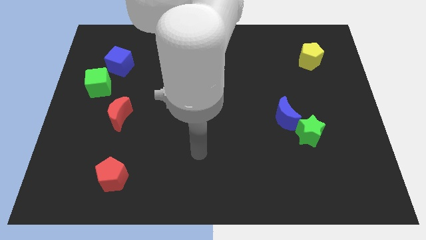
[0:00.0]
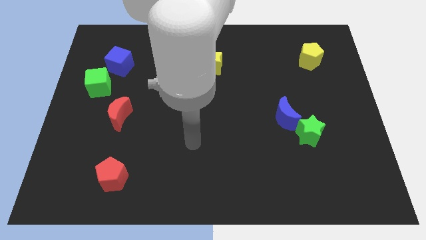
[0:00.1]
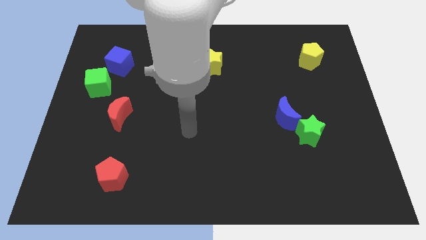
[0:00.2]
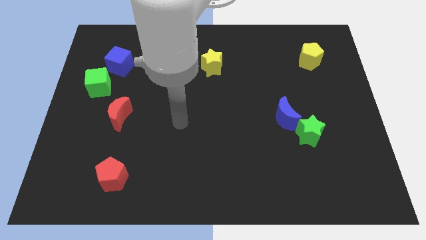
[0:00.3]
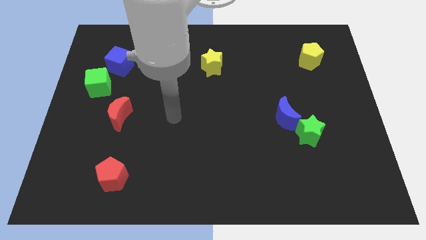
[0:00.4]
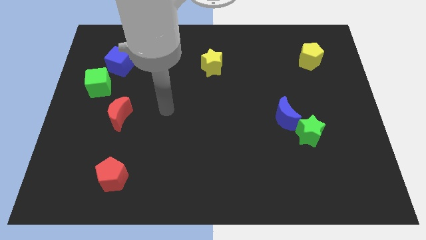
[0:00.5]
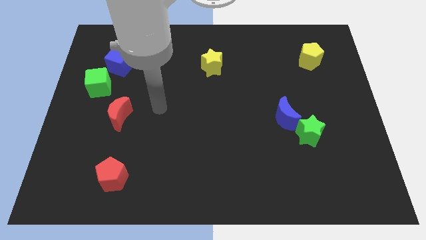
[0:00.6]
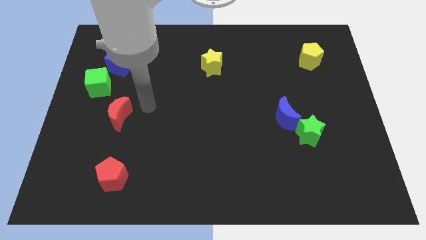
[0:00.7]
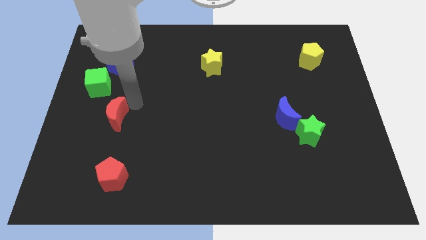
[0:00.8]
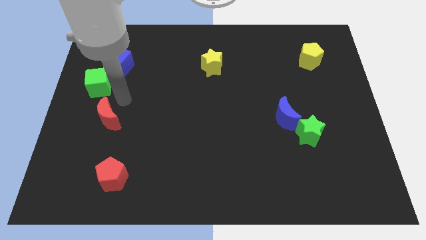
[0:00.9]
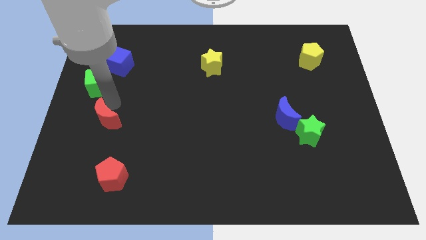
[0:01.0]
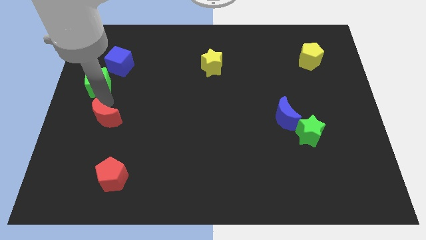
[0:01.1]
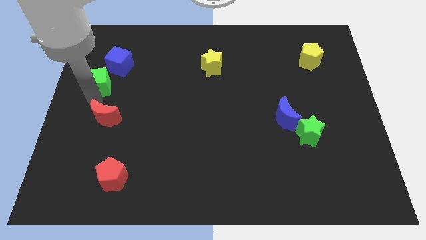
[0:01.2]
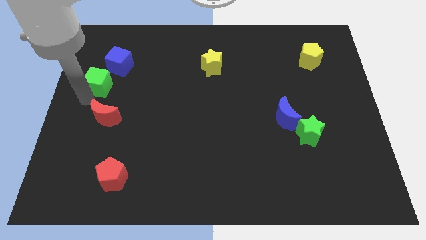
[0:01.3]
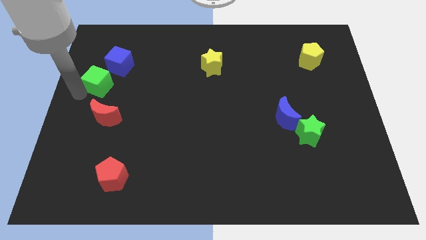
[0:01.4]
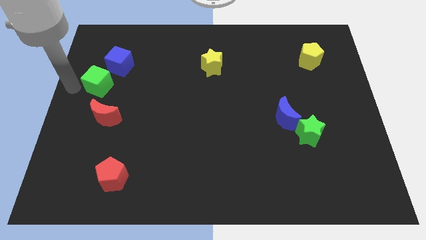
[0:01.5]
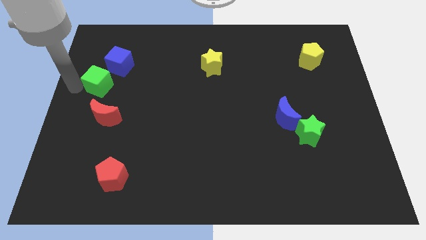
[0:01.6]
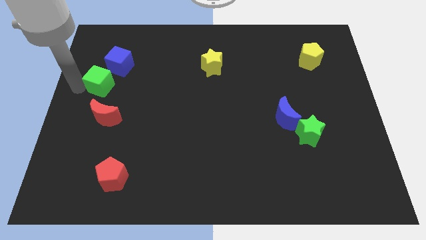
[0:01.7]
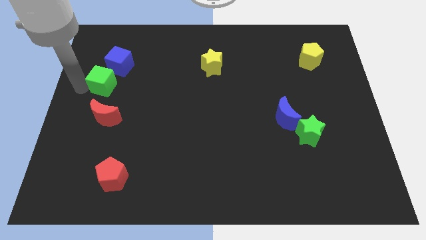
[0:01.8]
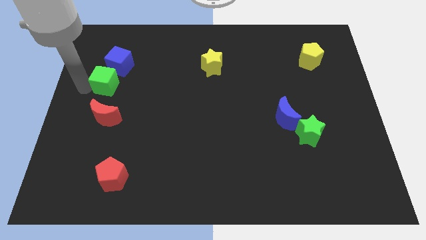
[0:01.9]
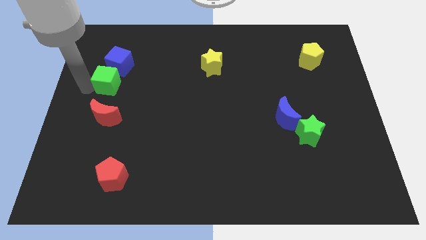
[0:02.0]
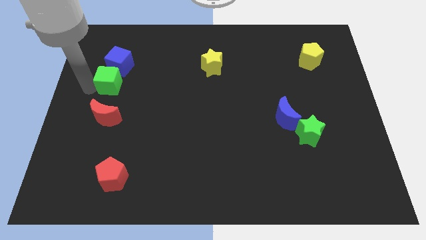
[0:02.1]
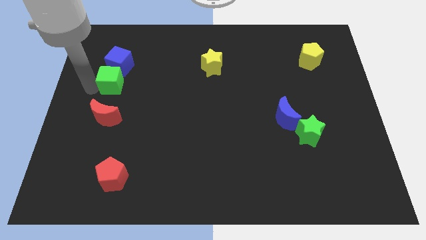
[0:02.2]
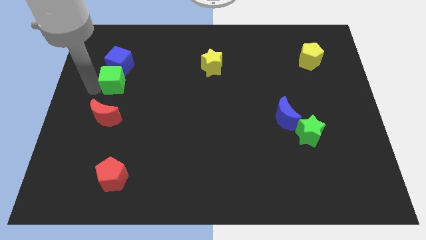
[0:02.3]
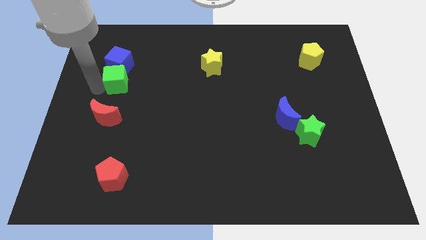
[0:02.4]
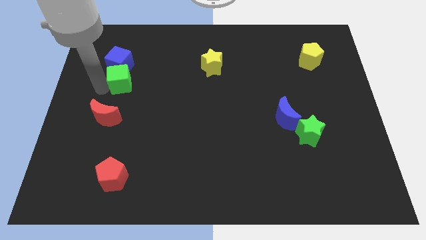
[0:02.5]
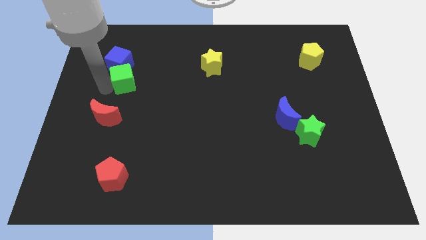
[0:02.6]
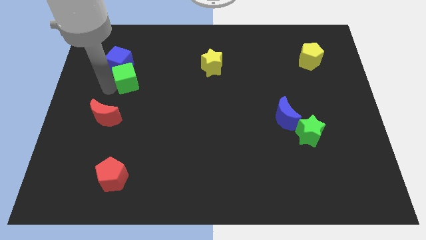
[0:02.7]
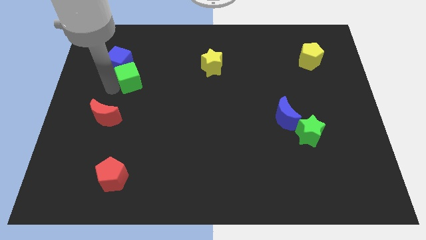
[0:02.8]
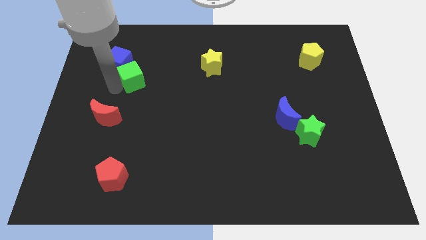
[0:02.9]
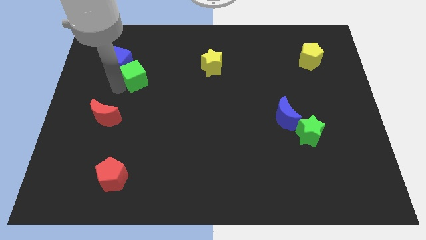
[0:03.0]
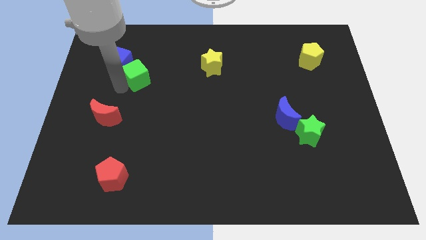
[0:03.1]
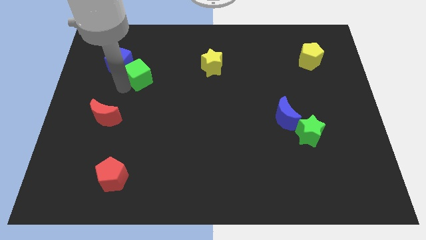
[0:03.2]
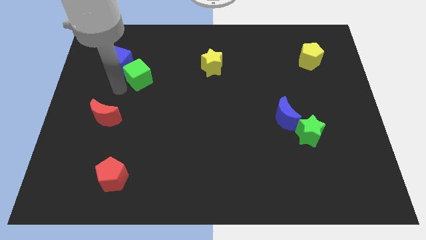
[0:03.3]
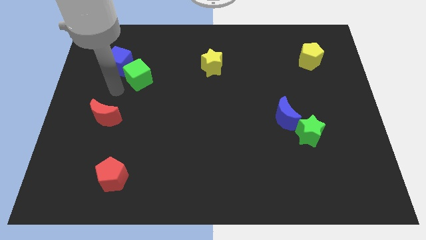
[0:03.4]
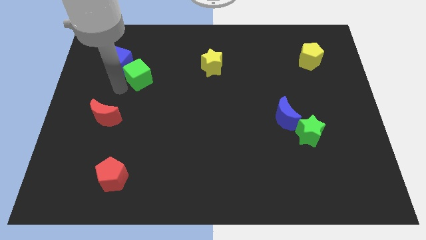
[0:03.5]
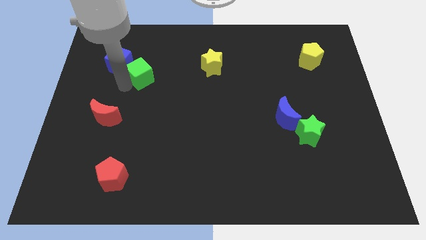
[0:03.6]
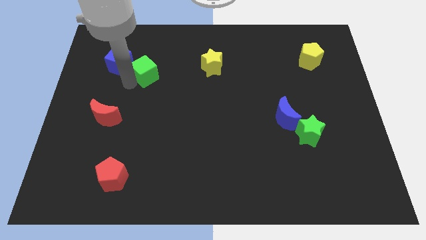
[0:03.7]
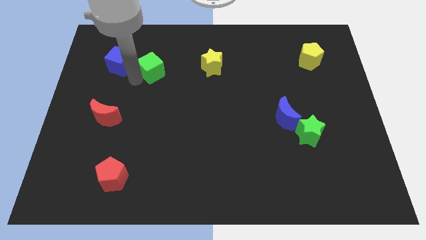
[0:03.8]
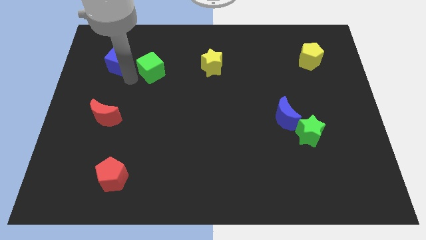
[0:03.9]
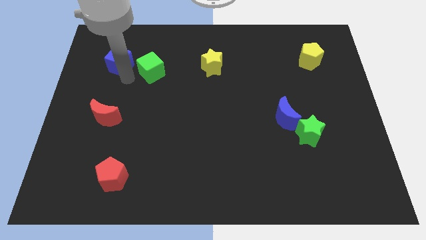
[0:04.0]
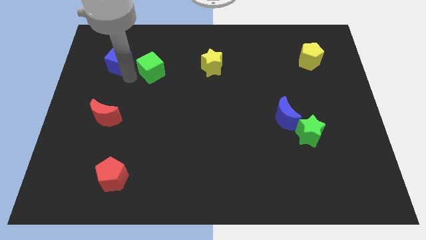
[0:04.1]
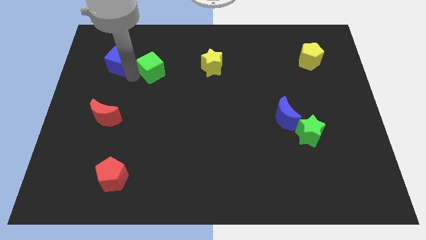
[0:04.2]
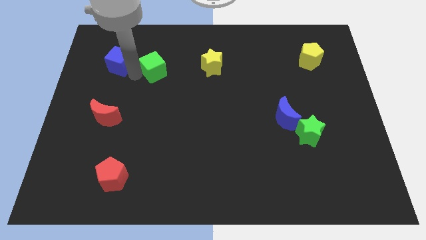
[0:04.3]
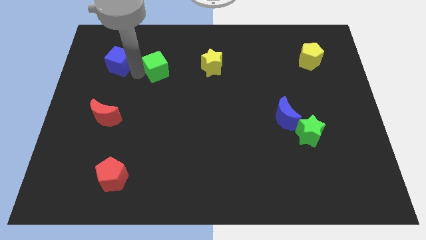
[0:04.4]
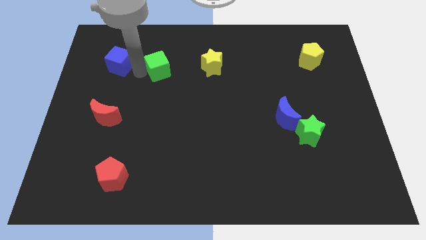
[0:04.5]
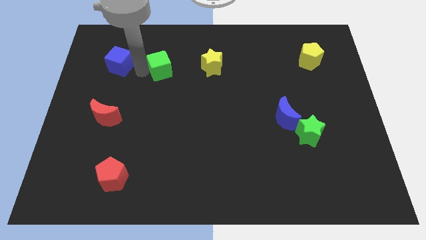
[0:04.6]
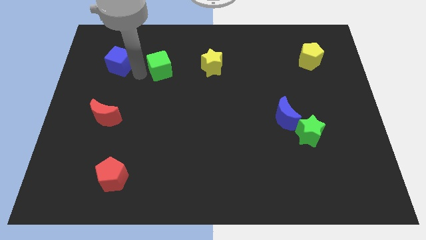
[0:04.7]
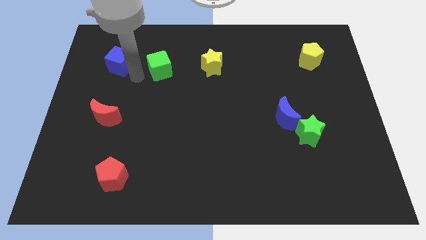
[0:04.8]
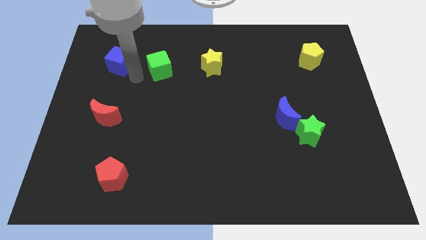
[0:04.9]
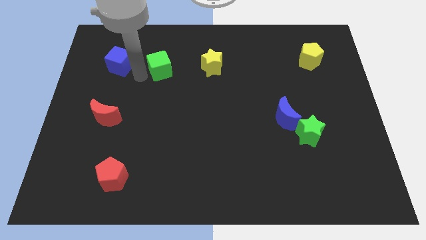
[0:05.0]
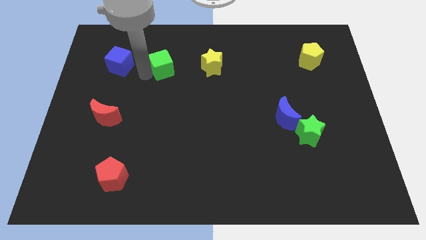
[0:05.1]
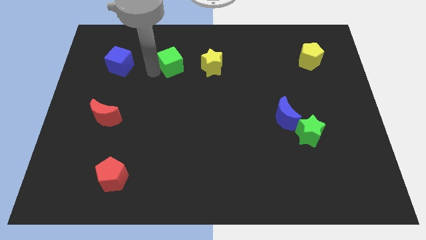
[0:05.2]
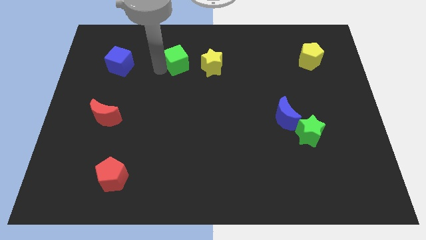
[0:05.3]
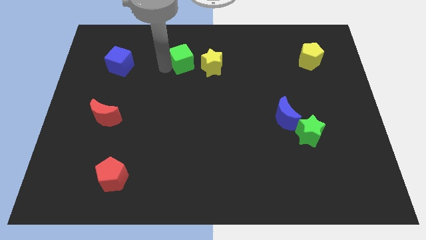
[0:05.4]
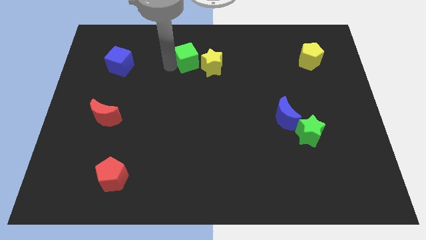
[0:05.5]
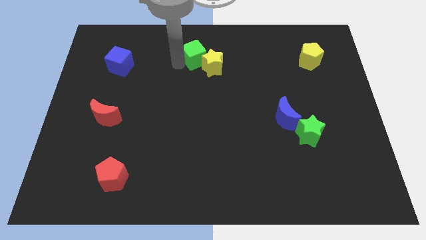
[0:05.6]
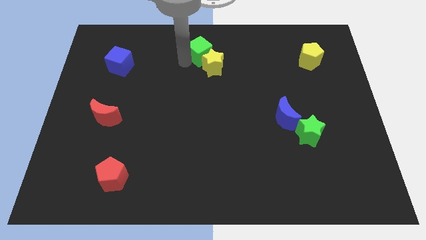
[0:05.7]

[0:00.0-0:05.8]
put the green cube to the top
